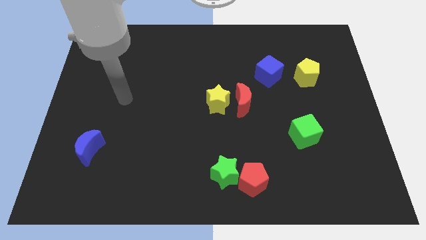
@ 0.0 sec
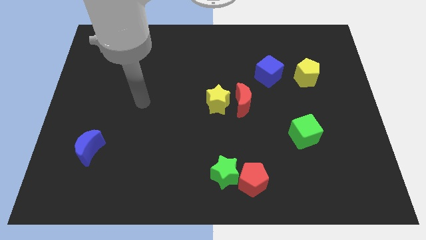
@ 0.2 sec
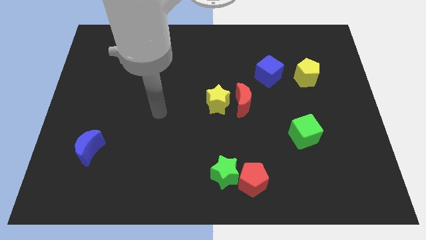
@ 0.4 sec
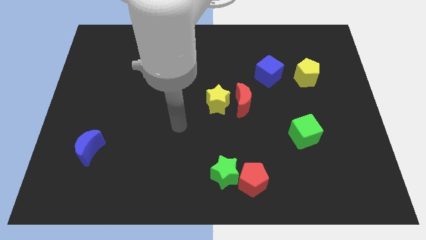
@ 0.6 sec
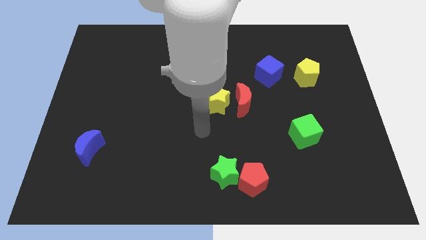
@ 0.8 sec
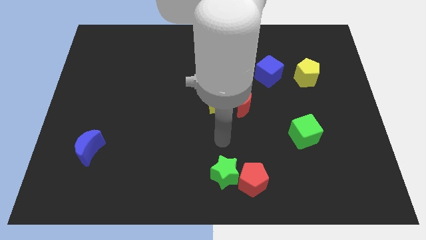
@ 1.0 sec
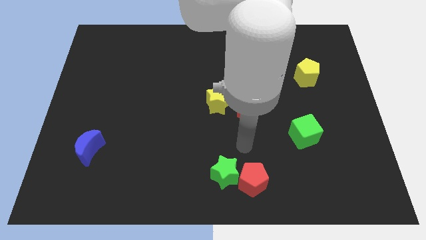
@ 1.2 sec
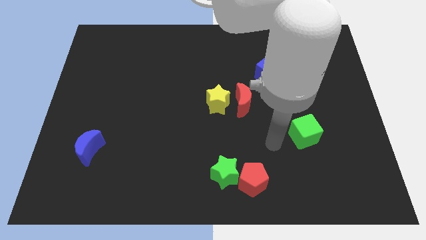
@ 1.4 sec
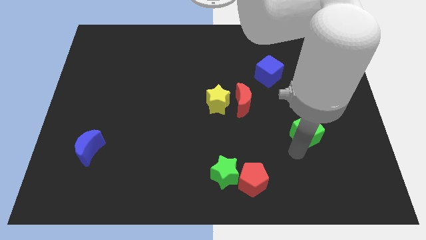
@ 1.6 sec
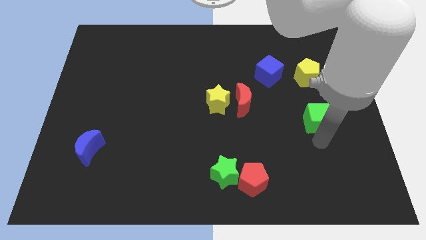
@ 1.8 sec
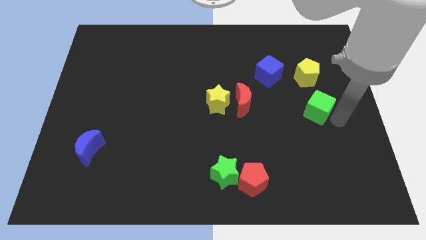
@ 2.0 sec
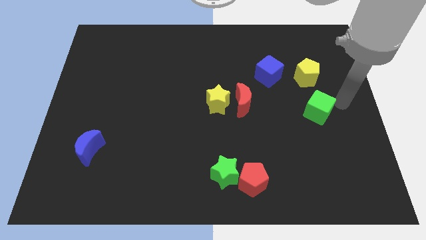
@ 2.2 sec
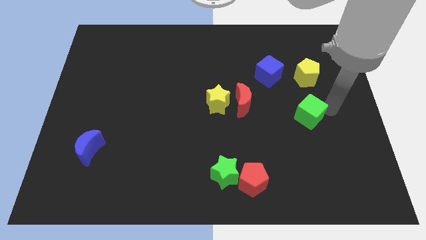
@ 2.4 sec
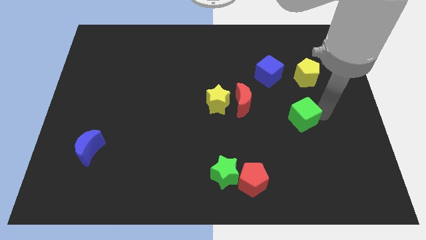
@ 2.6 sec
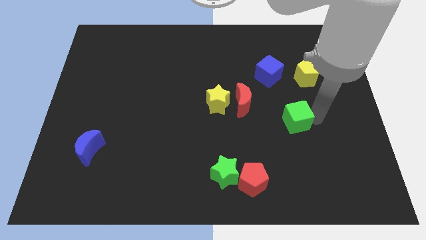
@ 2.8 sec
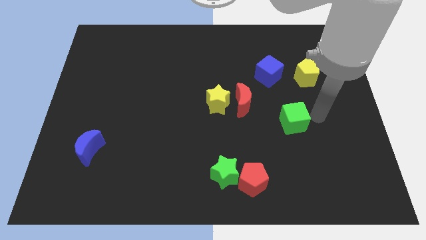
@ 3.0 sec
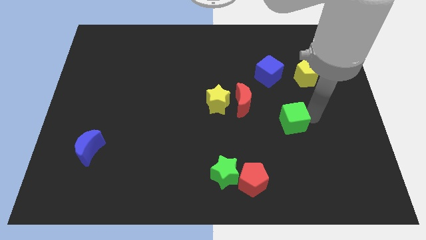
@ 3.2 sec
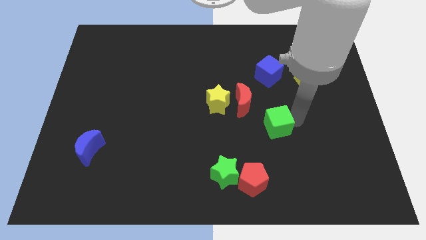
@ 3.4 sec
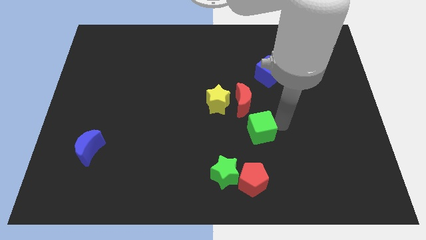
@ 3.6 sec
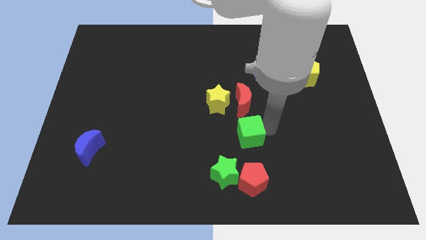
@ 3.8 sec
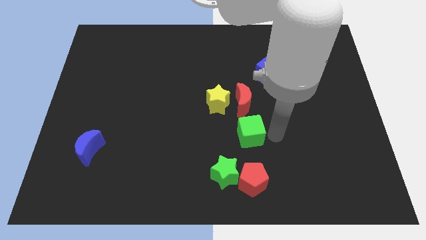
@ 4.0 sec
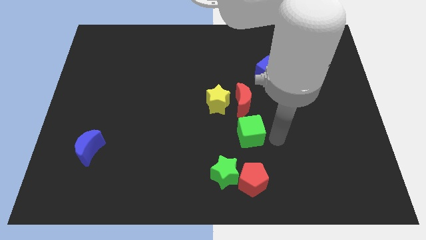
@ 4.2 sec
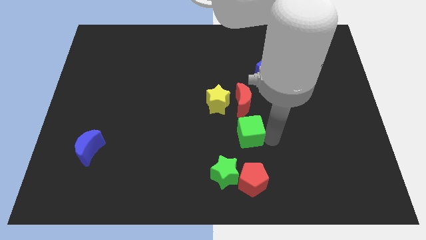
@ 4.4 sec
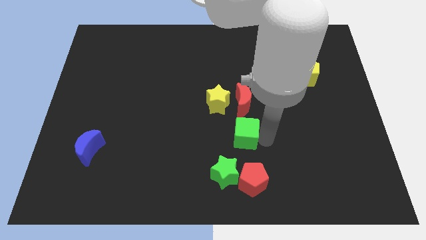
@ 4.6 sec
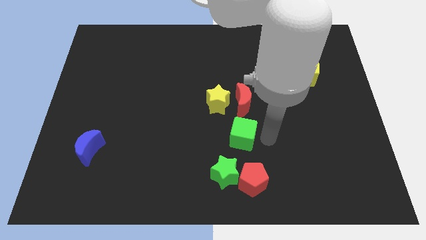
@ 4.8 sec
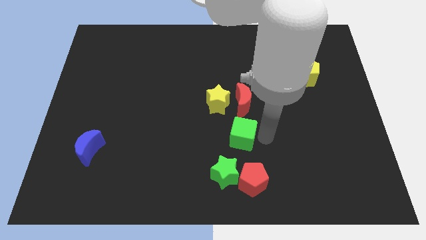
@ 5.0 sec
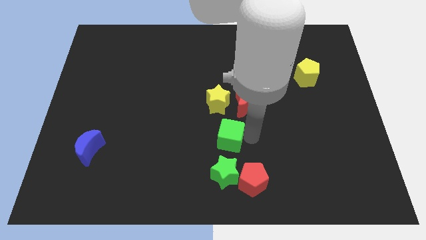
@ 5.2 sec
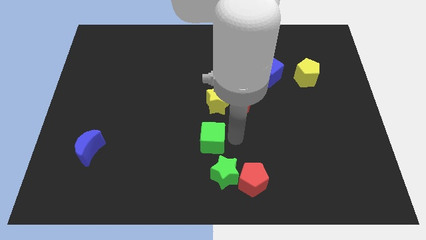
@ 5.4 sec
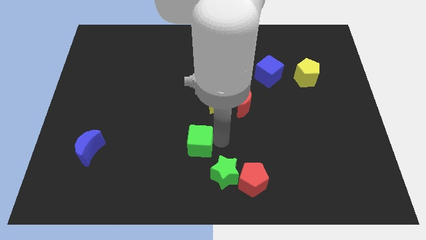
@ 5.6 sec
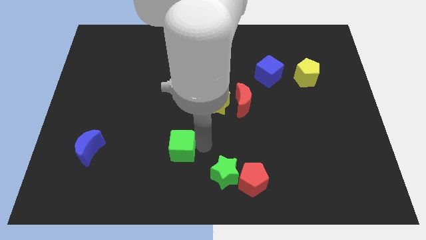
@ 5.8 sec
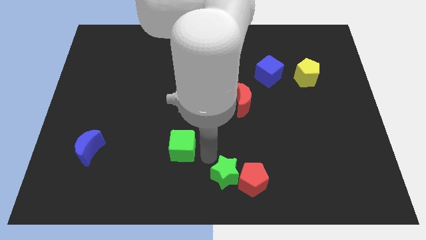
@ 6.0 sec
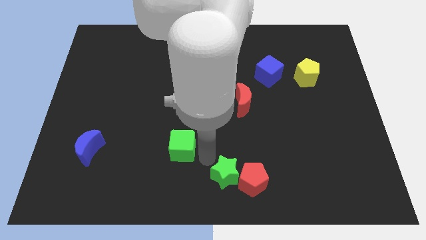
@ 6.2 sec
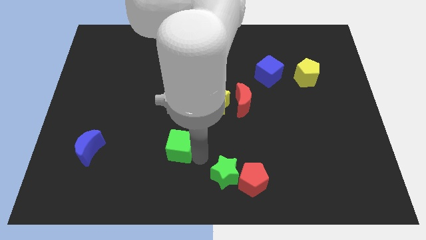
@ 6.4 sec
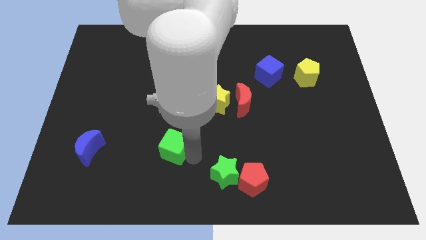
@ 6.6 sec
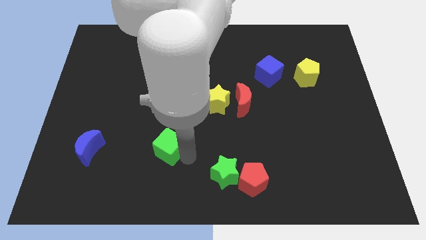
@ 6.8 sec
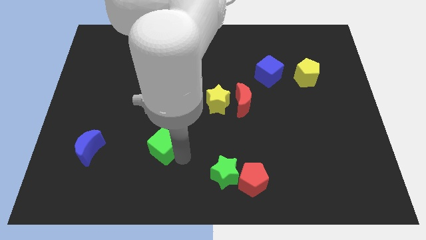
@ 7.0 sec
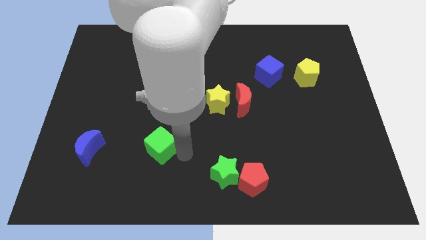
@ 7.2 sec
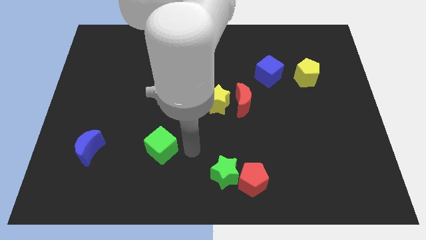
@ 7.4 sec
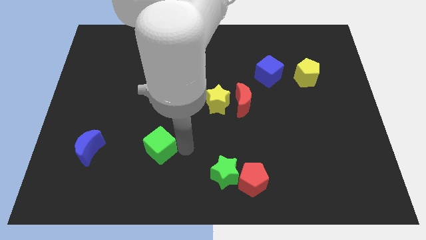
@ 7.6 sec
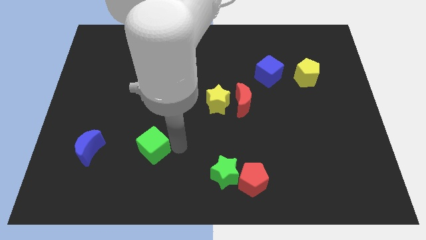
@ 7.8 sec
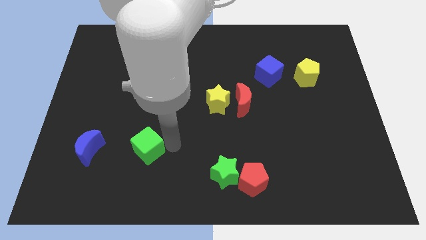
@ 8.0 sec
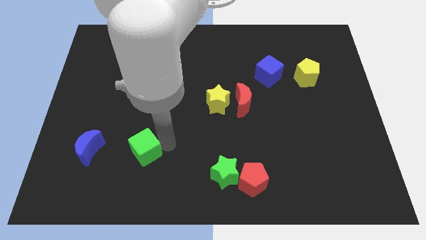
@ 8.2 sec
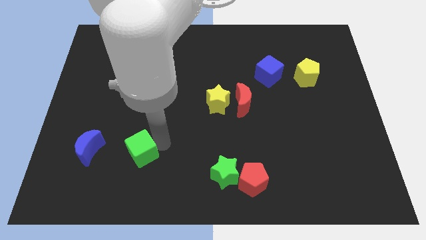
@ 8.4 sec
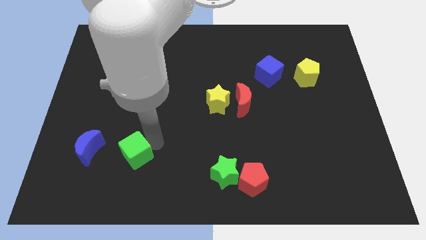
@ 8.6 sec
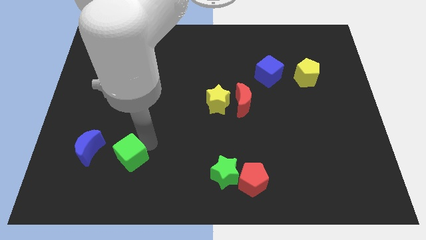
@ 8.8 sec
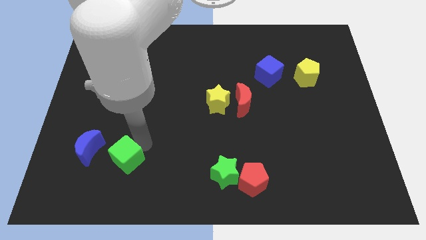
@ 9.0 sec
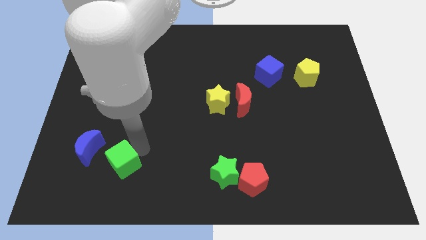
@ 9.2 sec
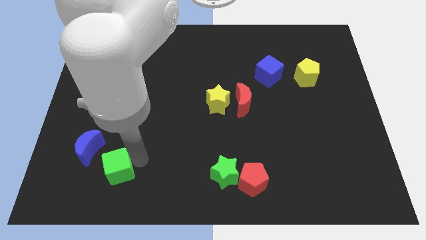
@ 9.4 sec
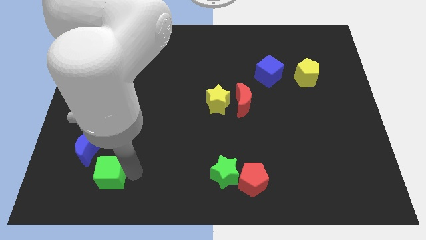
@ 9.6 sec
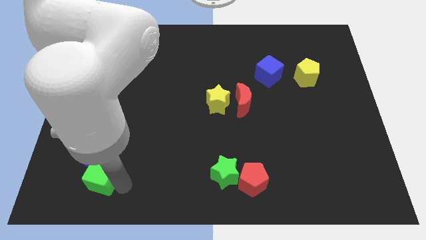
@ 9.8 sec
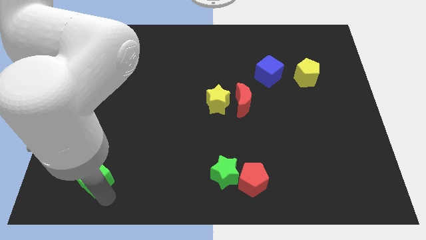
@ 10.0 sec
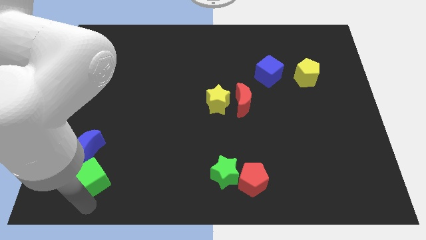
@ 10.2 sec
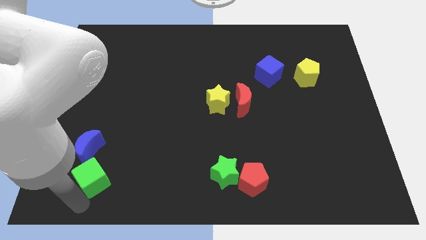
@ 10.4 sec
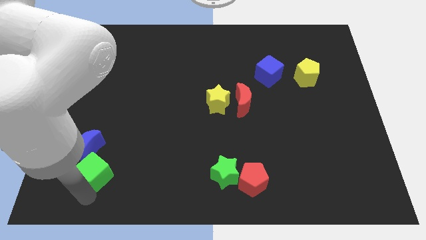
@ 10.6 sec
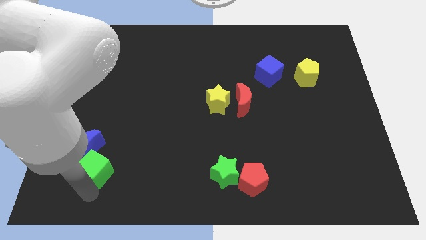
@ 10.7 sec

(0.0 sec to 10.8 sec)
put the green cube close to the blue moon

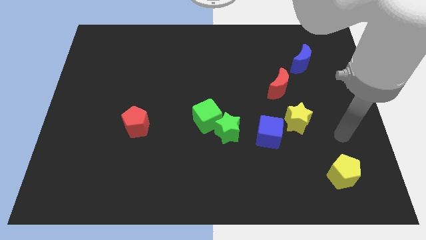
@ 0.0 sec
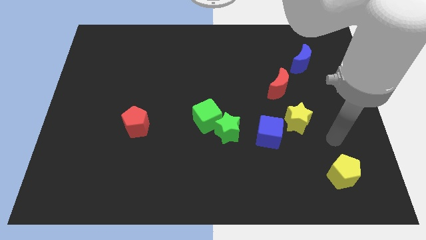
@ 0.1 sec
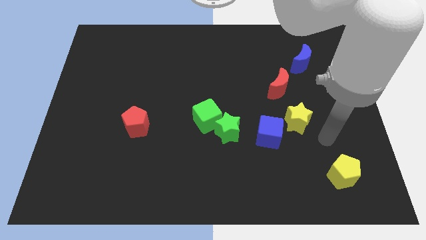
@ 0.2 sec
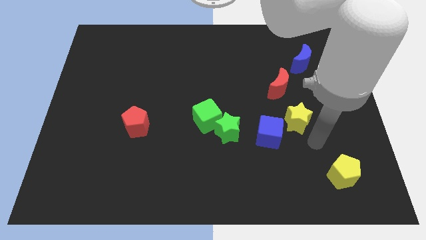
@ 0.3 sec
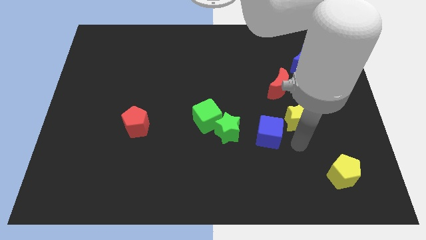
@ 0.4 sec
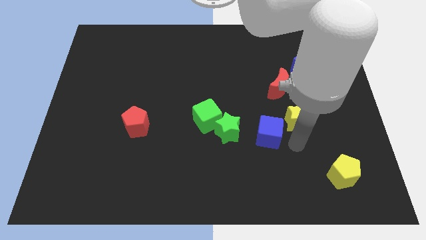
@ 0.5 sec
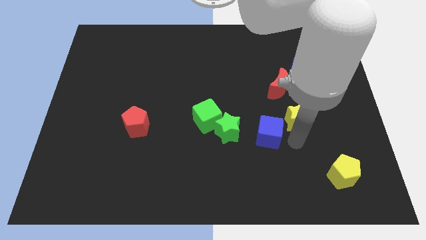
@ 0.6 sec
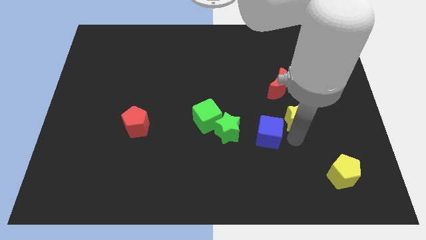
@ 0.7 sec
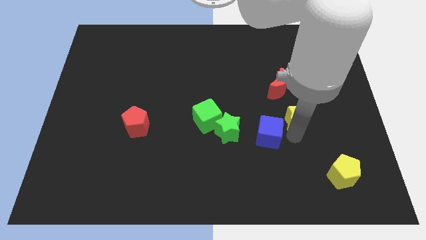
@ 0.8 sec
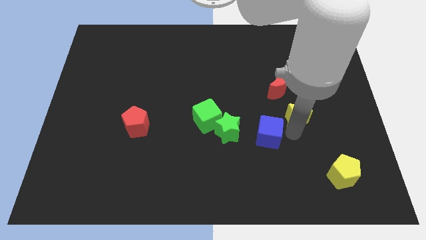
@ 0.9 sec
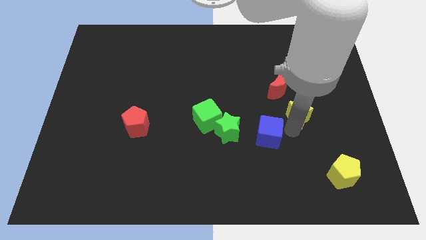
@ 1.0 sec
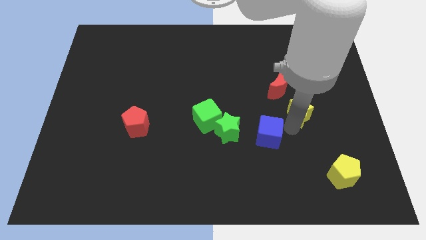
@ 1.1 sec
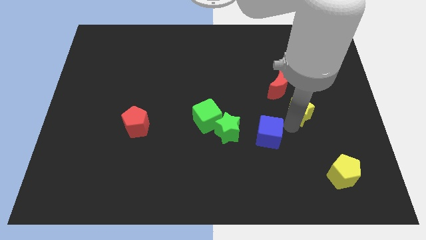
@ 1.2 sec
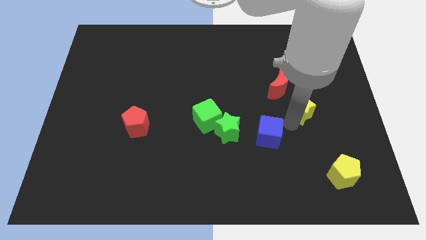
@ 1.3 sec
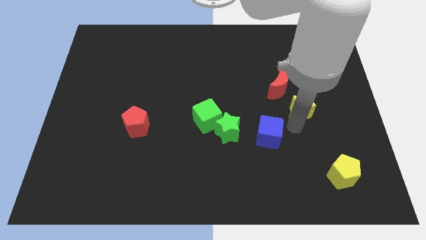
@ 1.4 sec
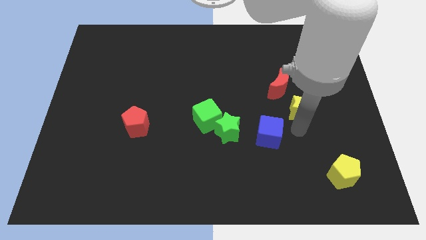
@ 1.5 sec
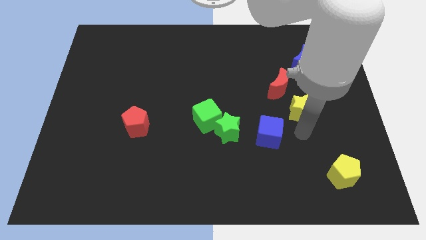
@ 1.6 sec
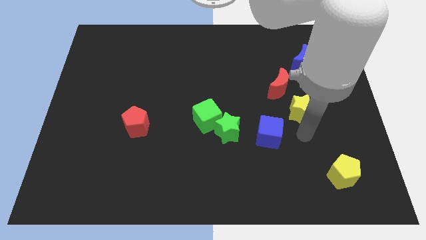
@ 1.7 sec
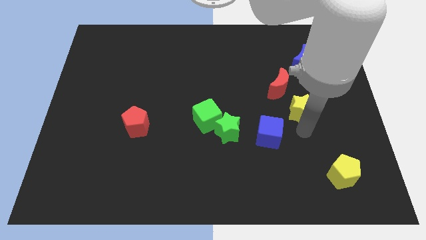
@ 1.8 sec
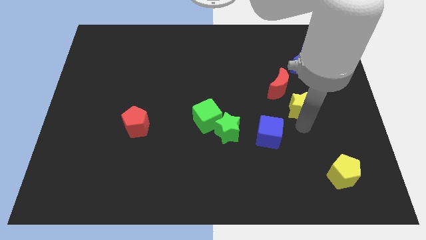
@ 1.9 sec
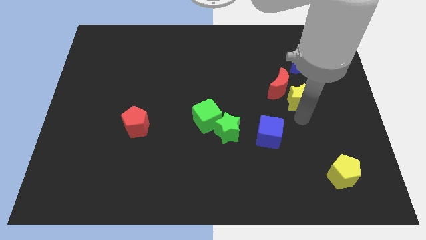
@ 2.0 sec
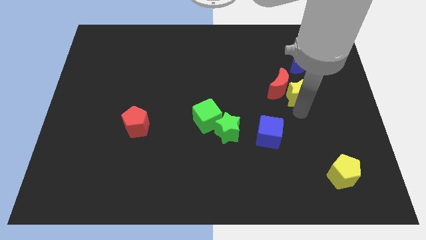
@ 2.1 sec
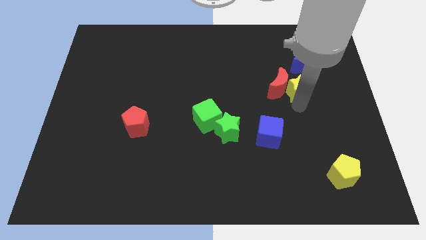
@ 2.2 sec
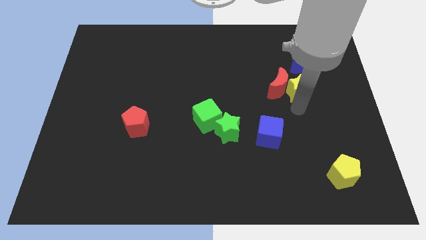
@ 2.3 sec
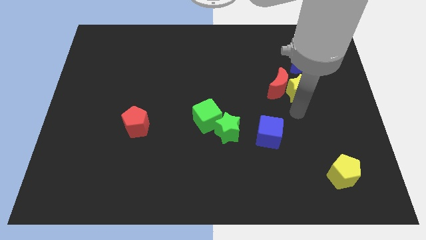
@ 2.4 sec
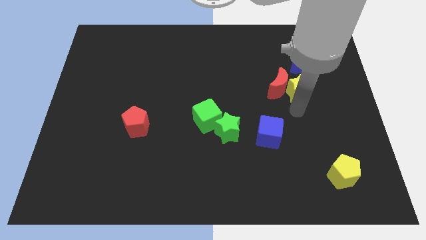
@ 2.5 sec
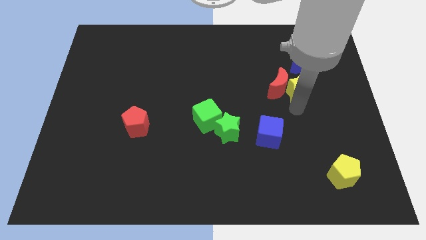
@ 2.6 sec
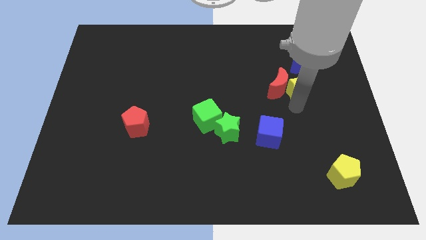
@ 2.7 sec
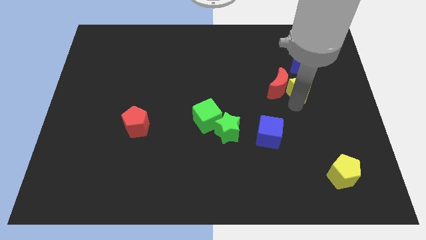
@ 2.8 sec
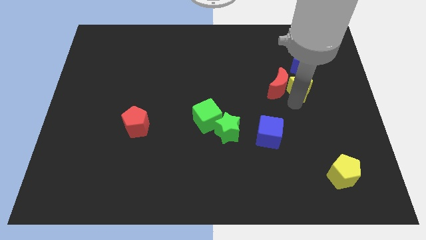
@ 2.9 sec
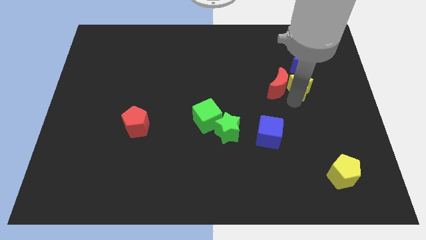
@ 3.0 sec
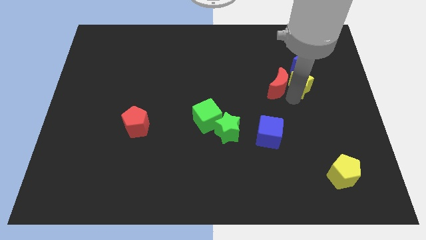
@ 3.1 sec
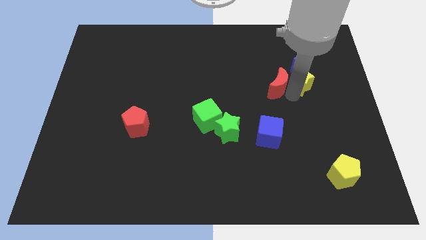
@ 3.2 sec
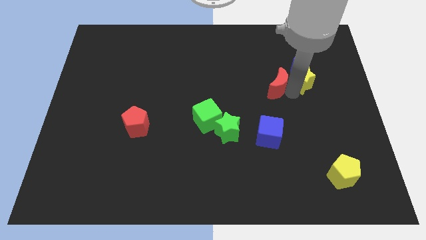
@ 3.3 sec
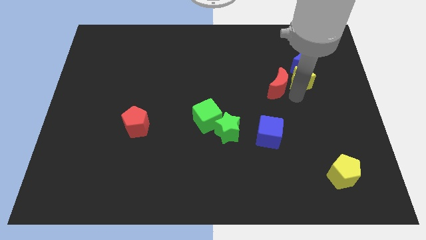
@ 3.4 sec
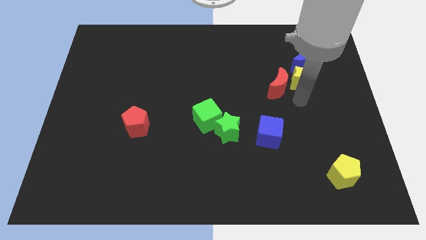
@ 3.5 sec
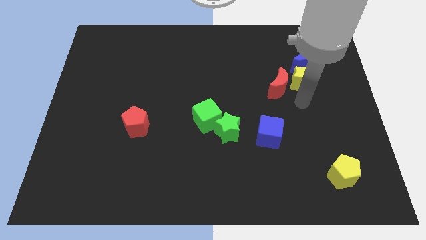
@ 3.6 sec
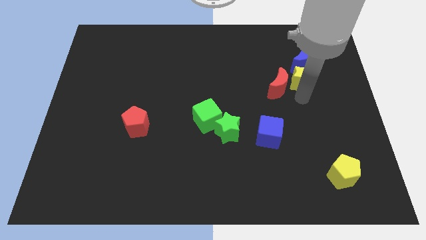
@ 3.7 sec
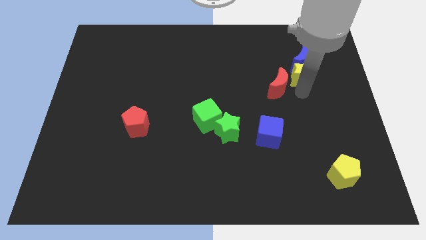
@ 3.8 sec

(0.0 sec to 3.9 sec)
slide the yellow star next to the blue moon
